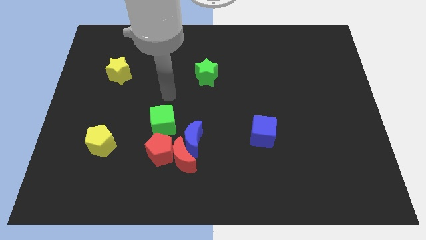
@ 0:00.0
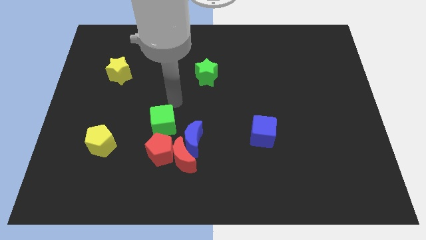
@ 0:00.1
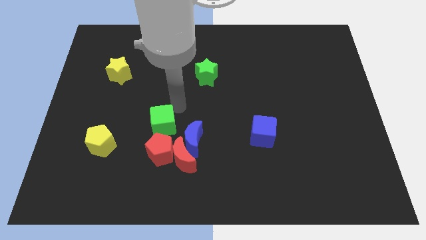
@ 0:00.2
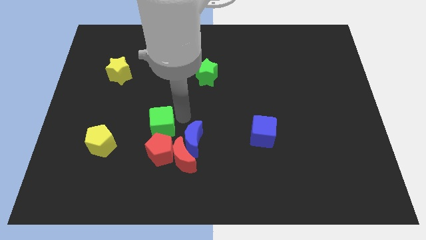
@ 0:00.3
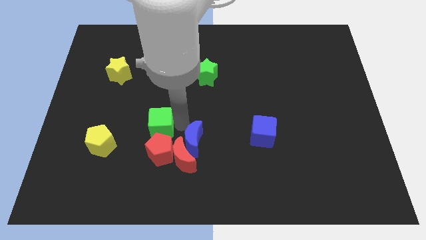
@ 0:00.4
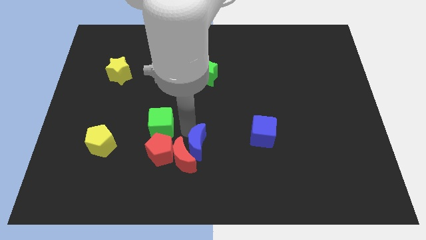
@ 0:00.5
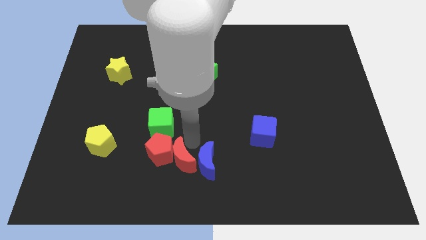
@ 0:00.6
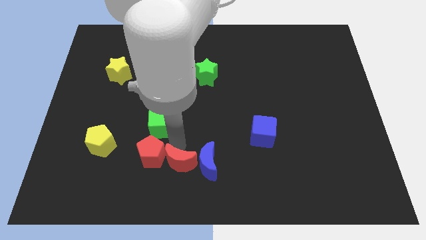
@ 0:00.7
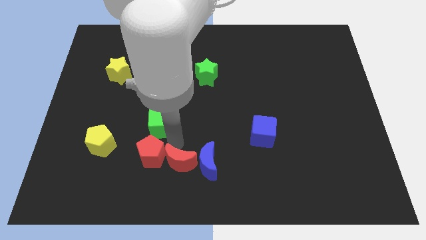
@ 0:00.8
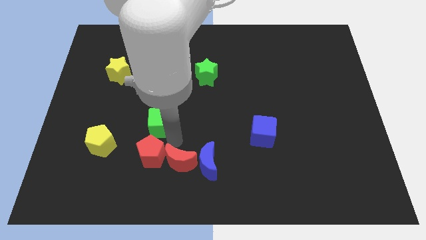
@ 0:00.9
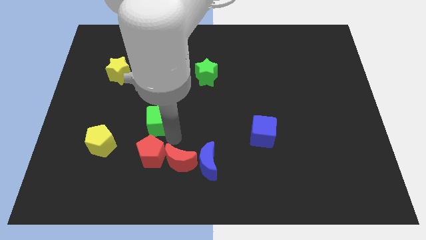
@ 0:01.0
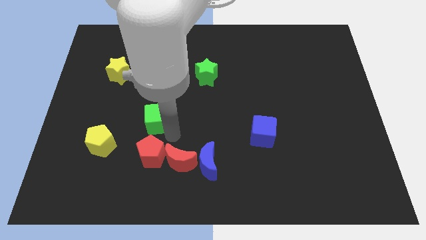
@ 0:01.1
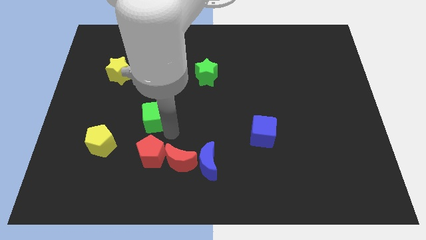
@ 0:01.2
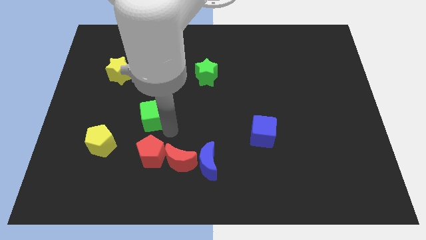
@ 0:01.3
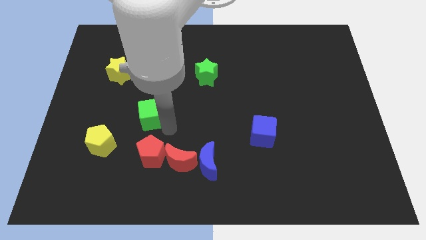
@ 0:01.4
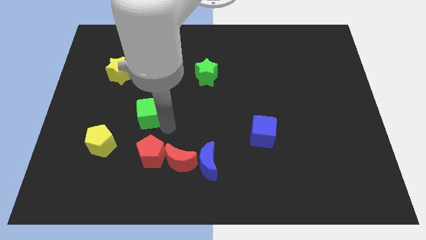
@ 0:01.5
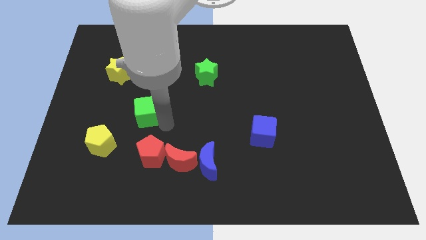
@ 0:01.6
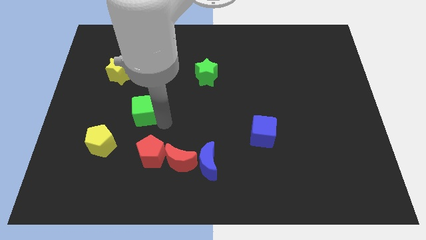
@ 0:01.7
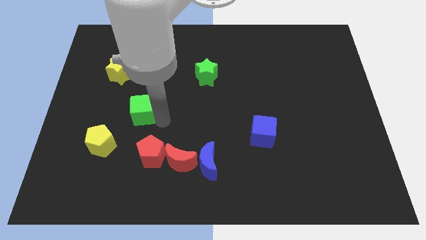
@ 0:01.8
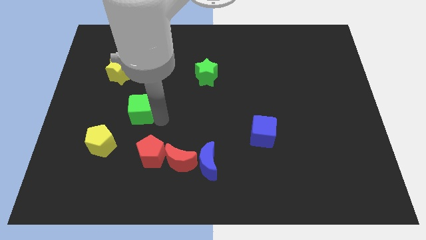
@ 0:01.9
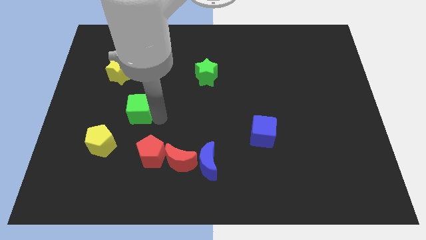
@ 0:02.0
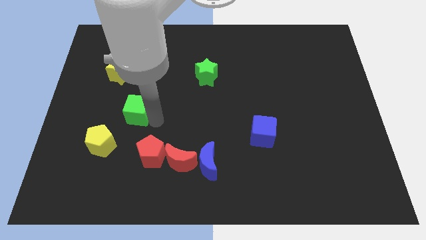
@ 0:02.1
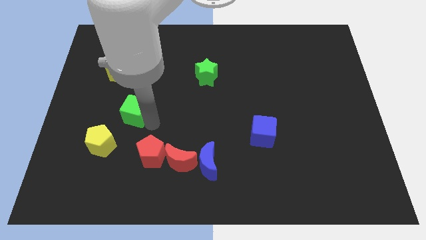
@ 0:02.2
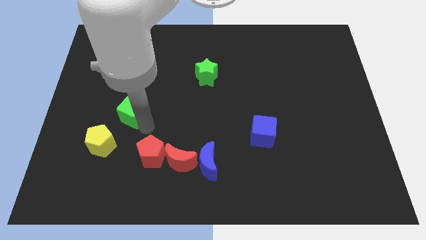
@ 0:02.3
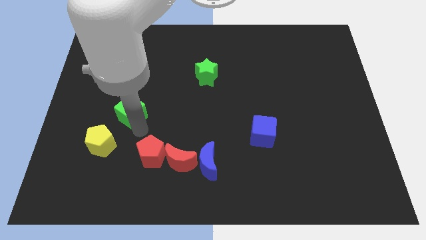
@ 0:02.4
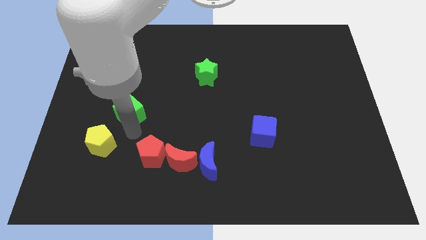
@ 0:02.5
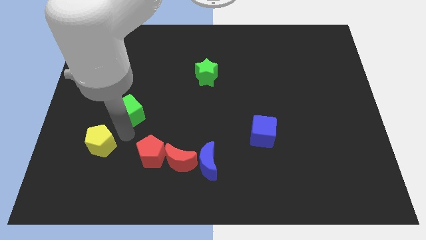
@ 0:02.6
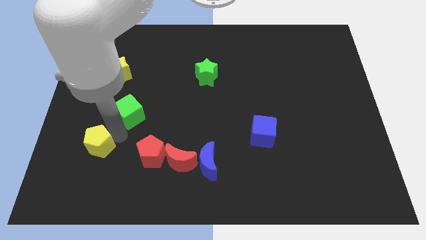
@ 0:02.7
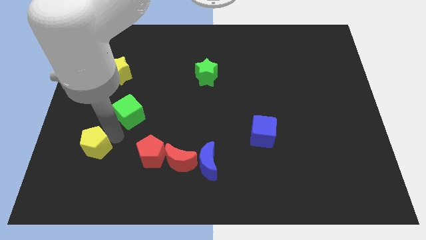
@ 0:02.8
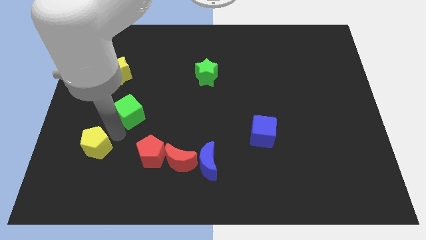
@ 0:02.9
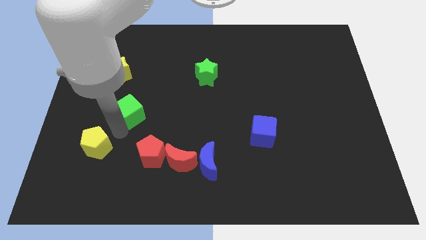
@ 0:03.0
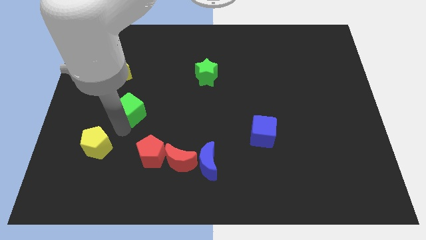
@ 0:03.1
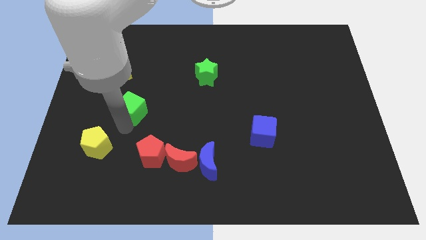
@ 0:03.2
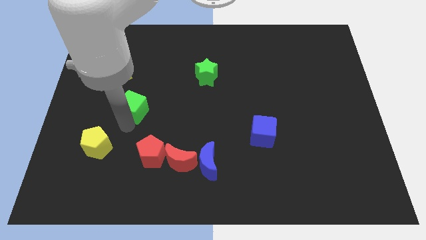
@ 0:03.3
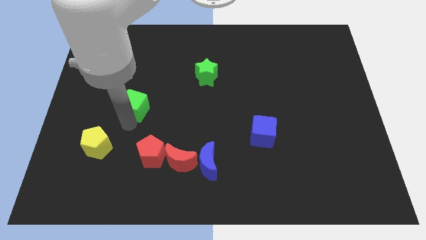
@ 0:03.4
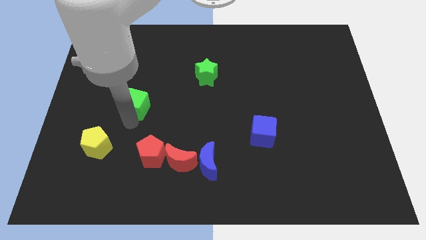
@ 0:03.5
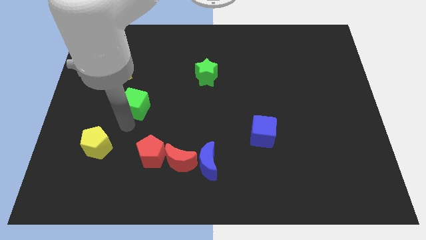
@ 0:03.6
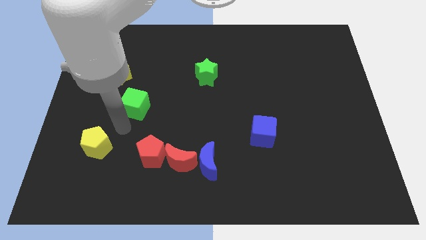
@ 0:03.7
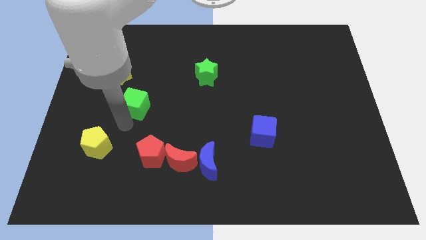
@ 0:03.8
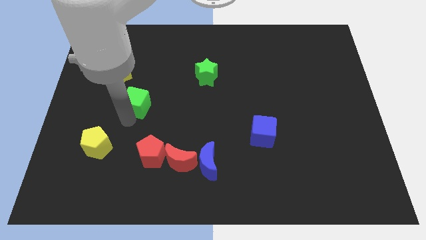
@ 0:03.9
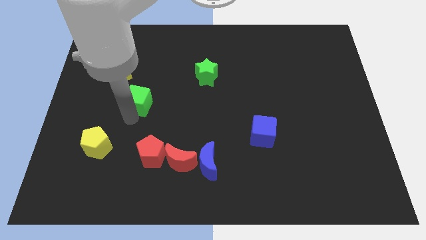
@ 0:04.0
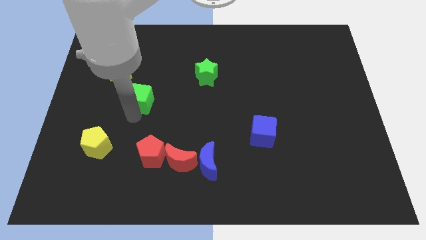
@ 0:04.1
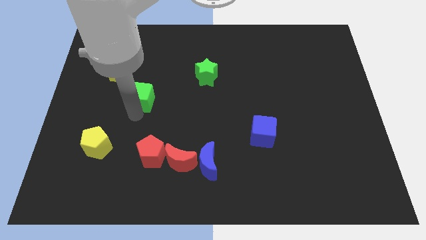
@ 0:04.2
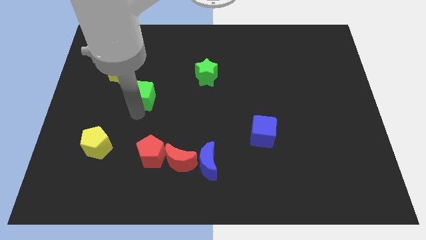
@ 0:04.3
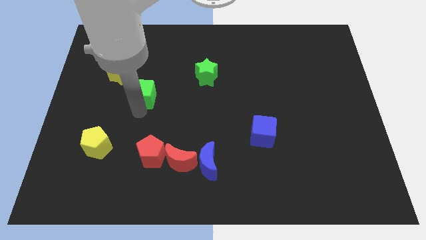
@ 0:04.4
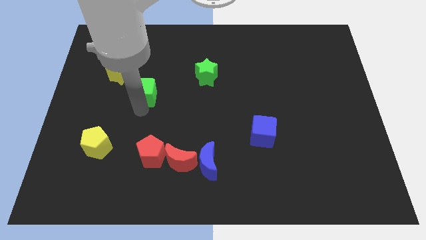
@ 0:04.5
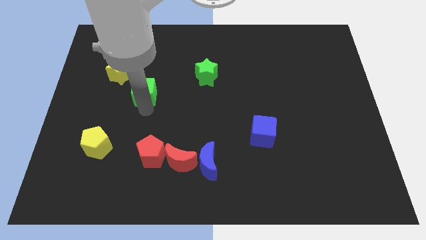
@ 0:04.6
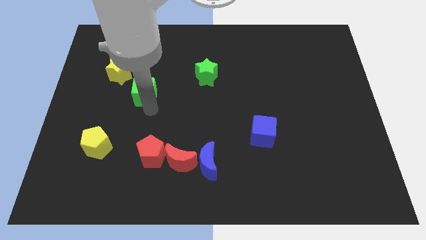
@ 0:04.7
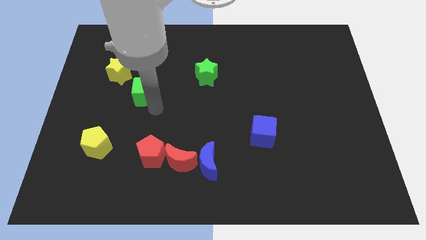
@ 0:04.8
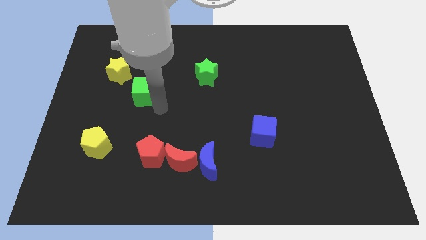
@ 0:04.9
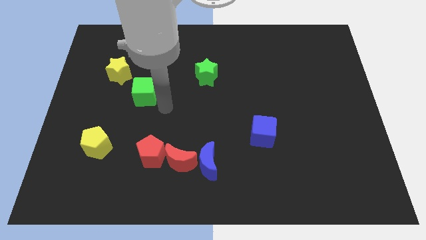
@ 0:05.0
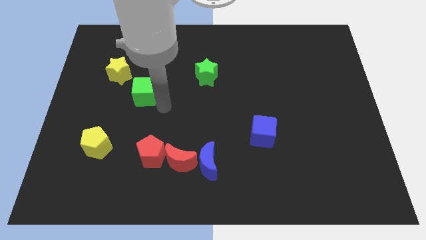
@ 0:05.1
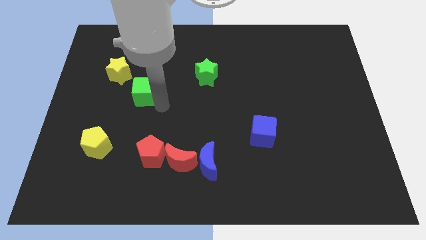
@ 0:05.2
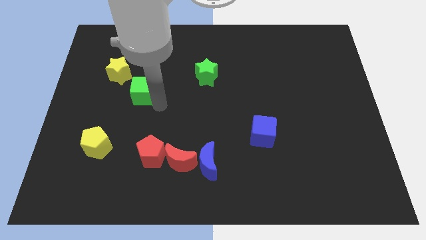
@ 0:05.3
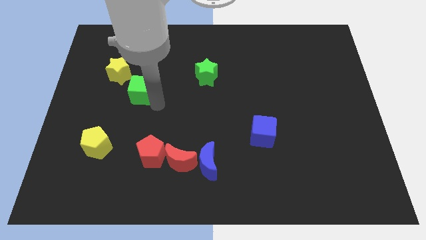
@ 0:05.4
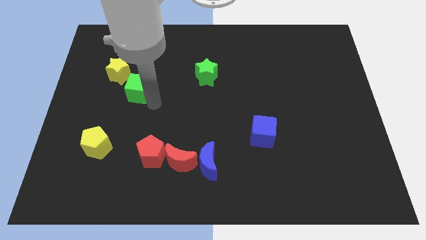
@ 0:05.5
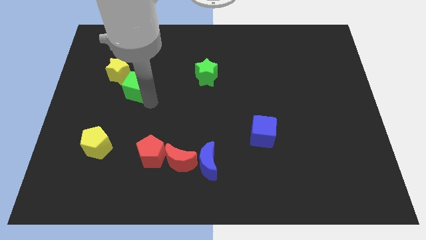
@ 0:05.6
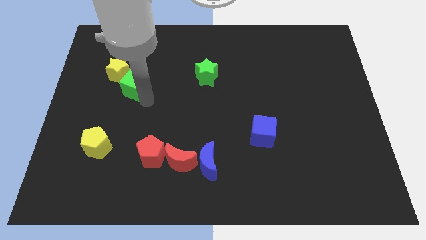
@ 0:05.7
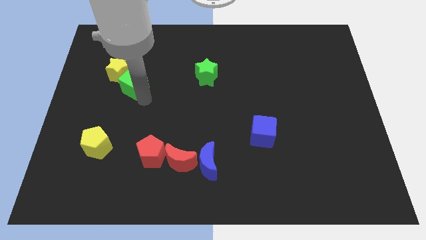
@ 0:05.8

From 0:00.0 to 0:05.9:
move the green cube close to the yellow star
